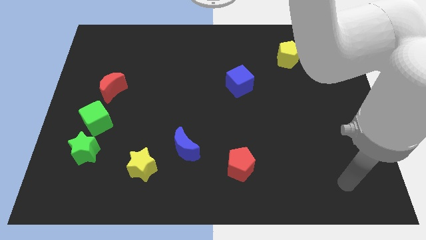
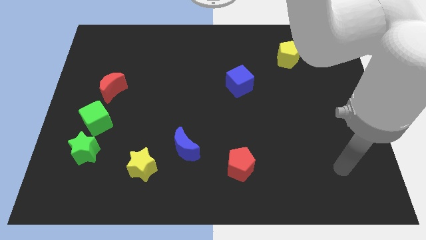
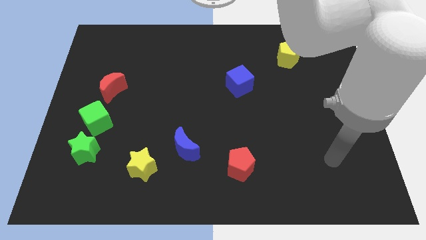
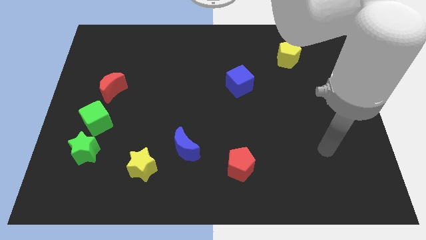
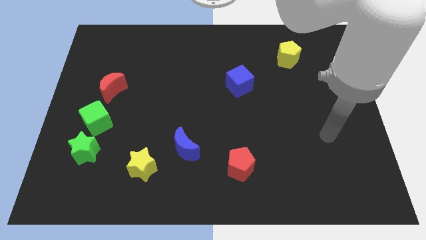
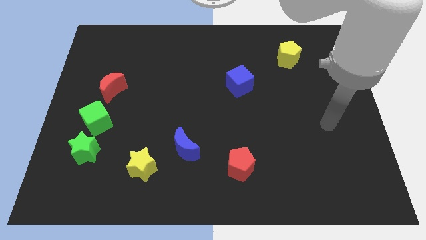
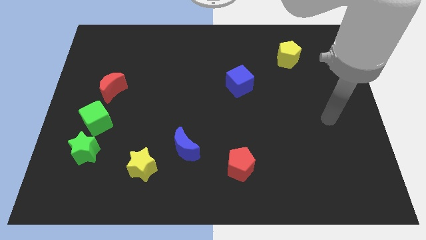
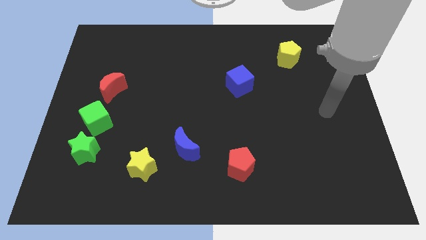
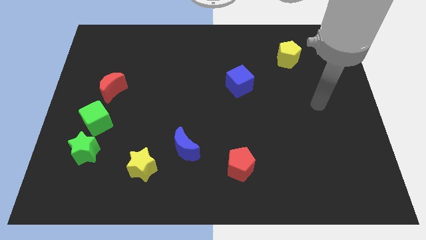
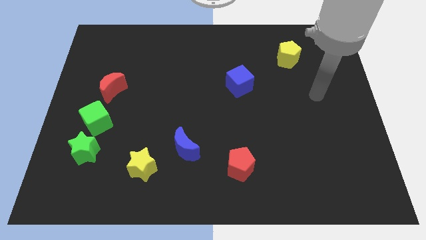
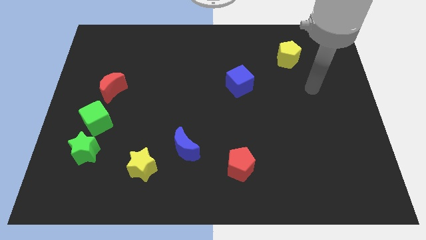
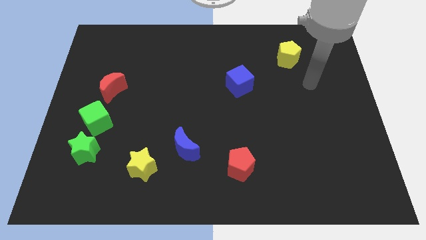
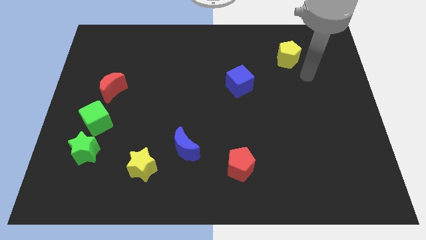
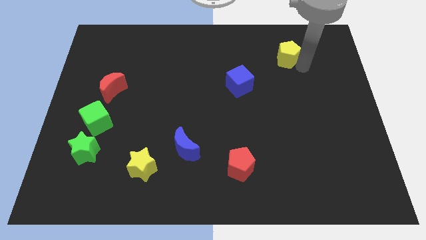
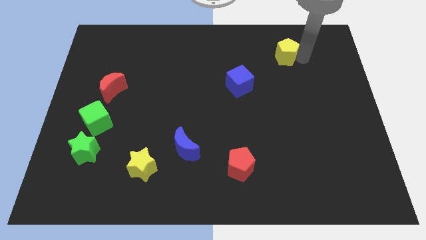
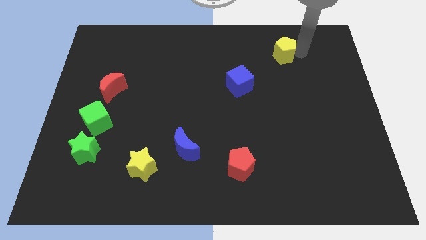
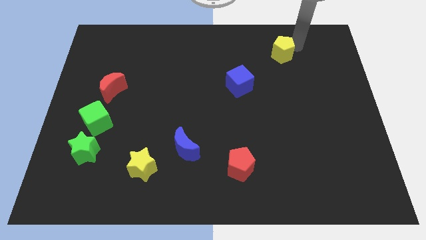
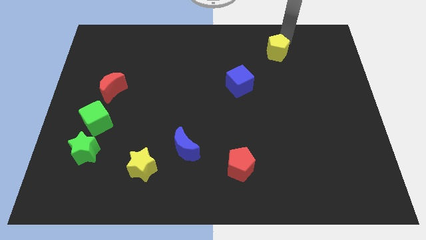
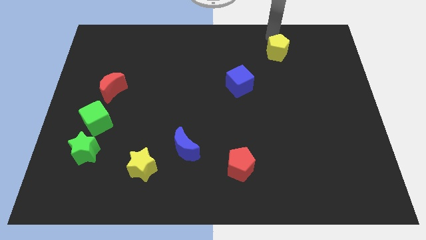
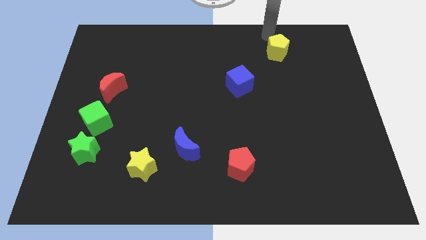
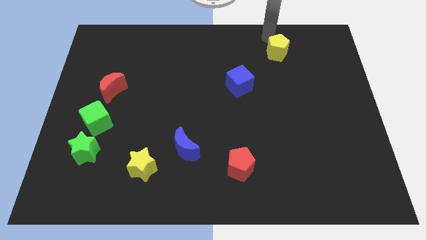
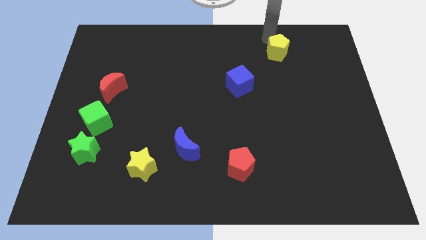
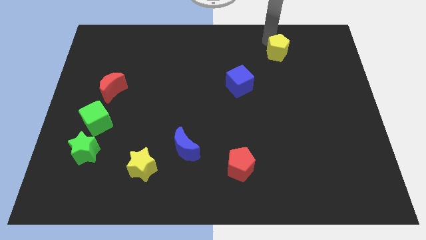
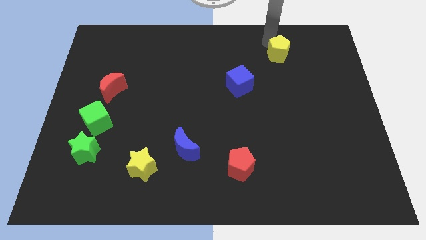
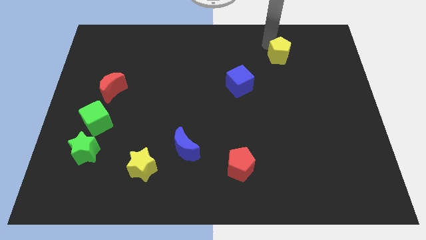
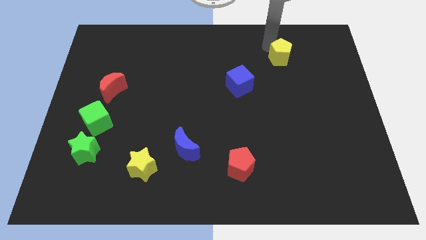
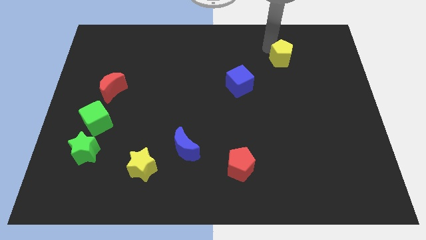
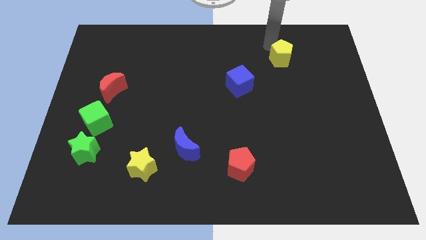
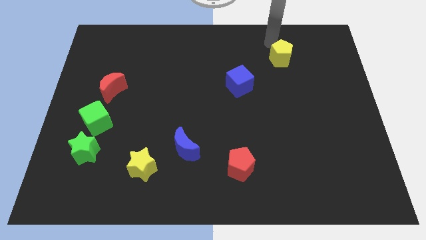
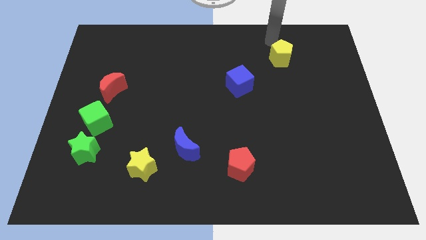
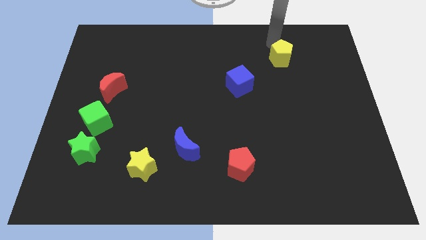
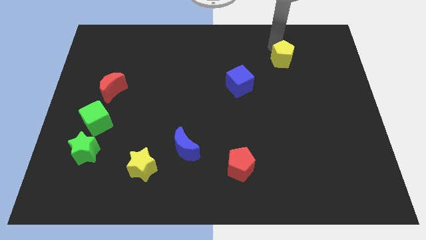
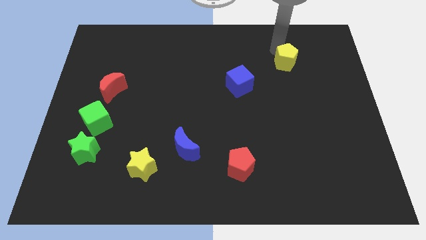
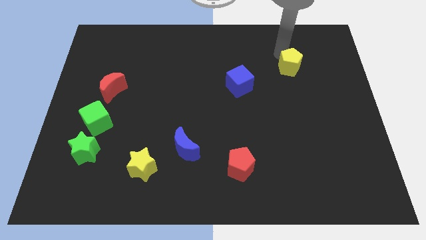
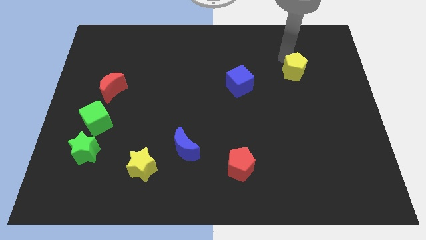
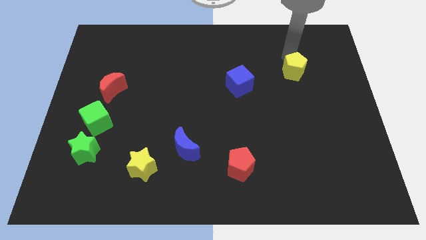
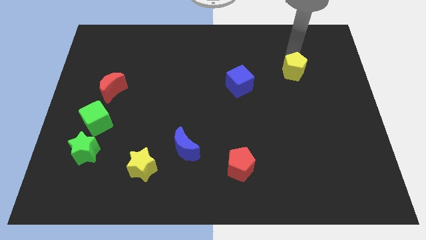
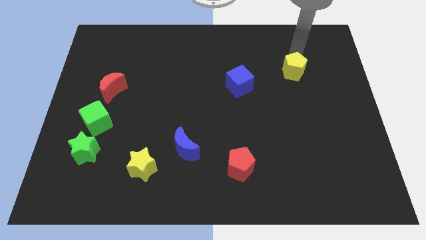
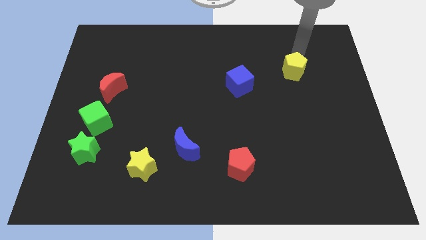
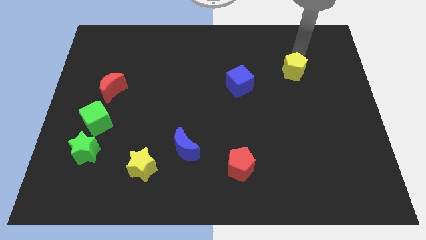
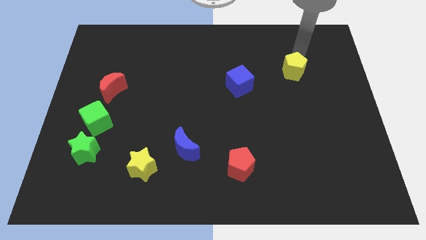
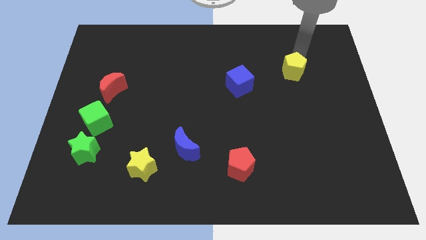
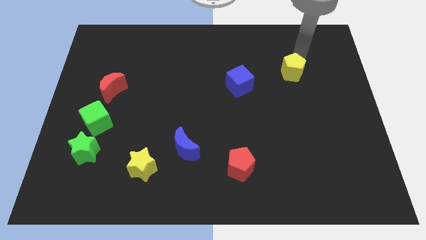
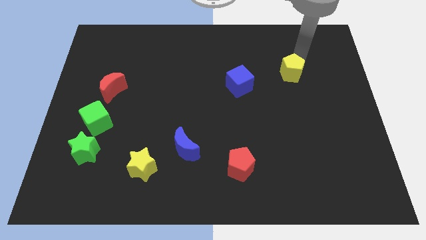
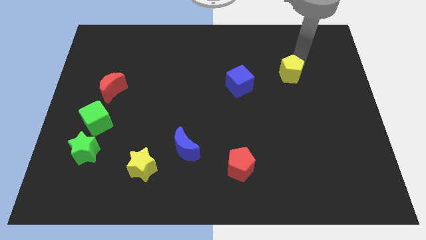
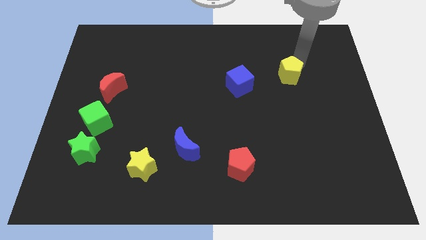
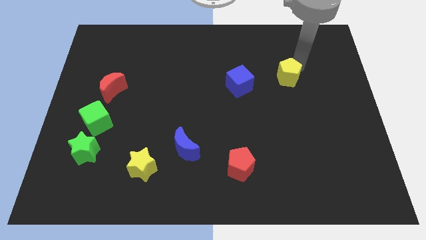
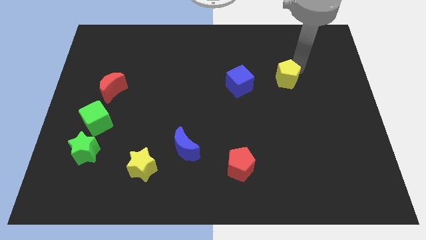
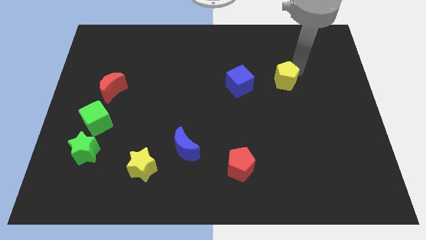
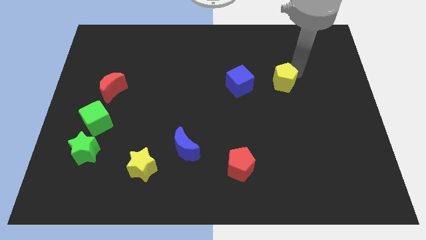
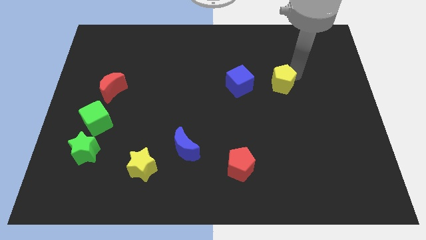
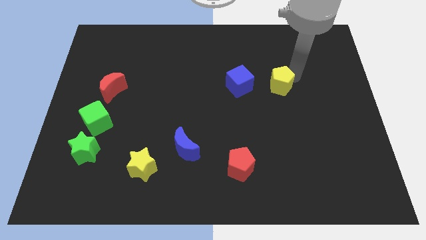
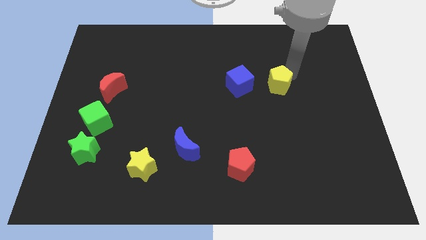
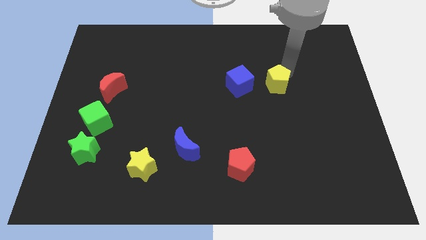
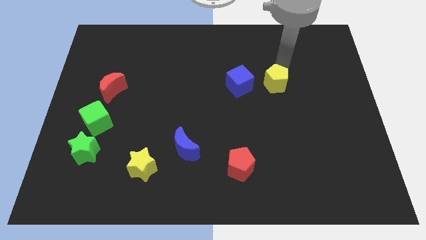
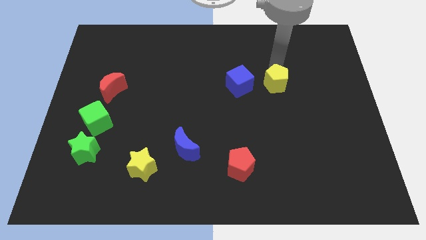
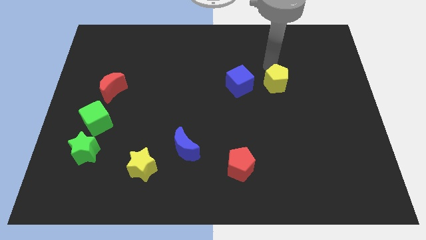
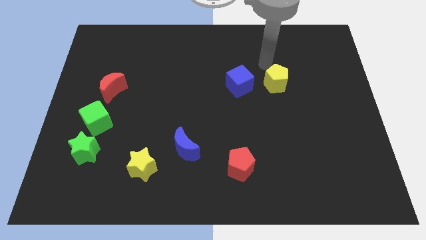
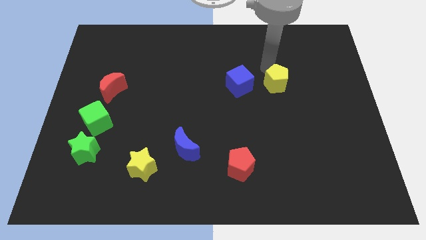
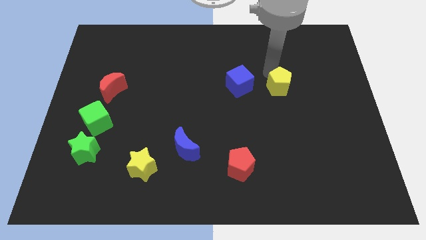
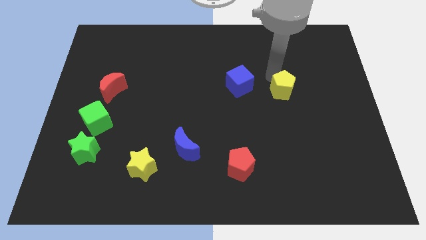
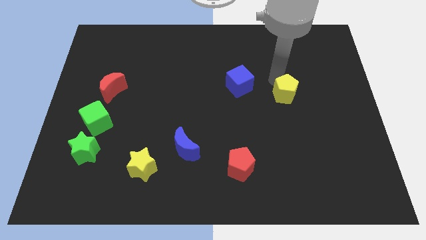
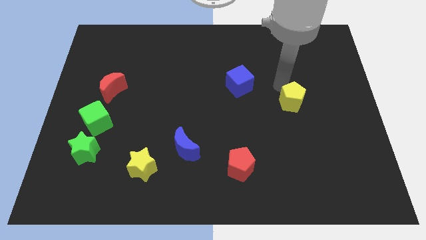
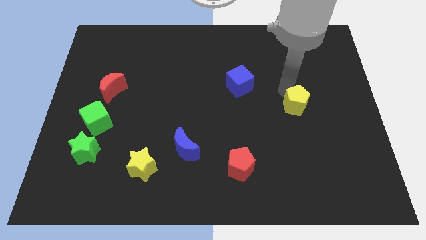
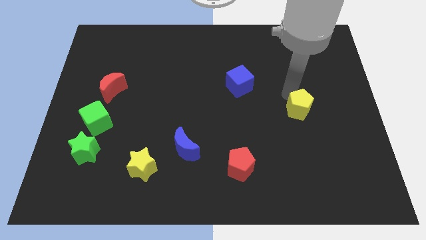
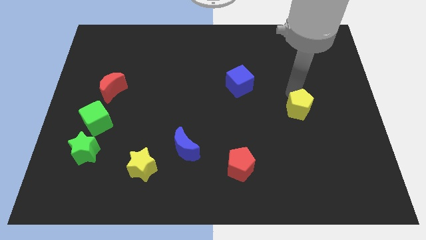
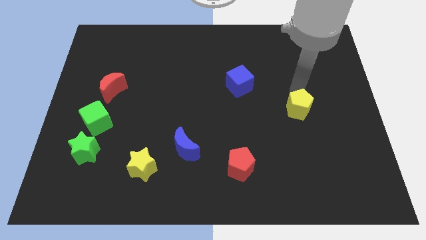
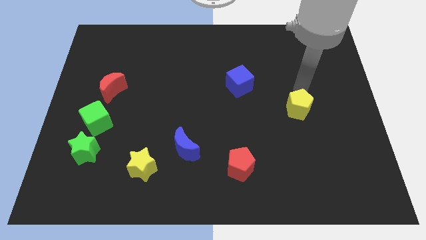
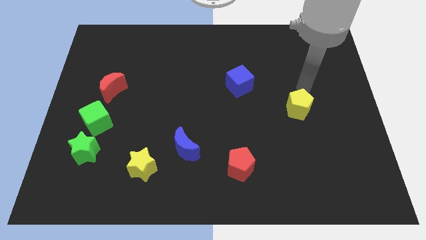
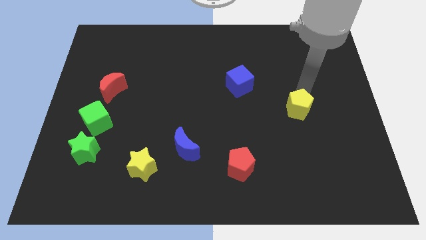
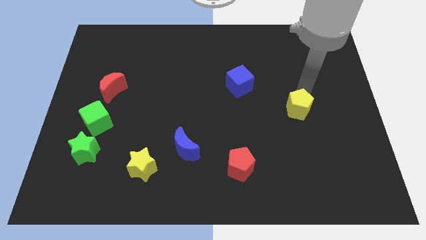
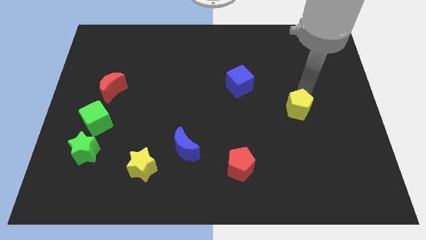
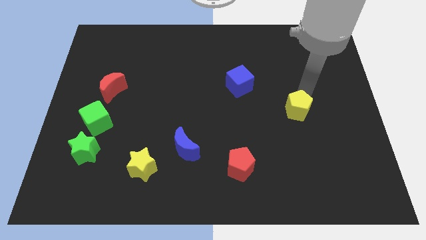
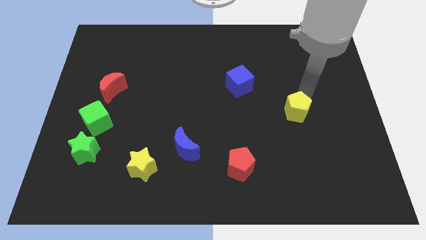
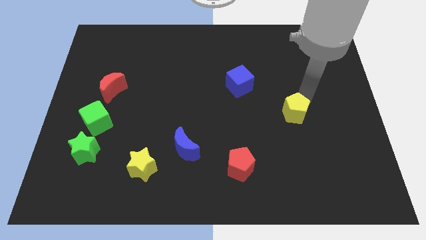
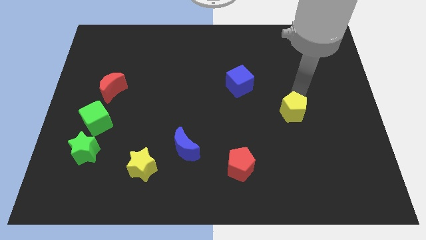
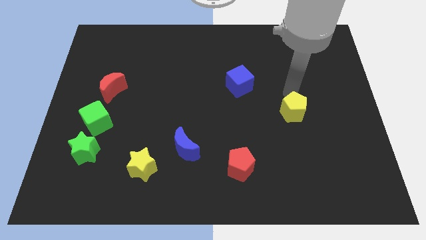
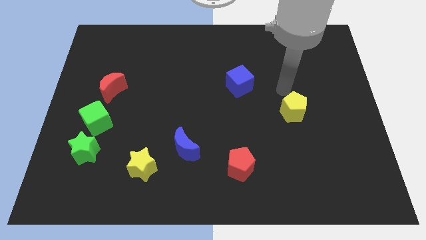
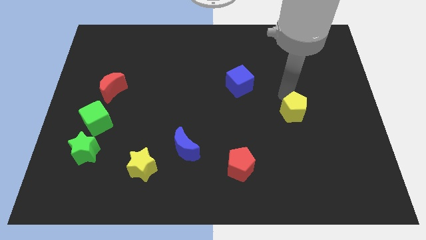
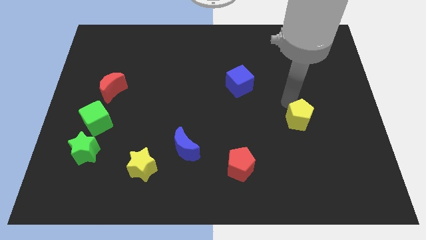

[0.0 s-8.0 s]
slide the yellow pentagon downwards

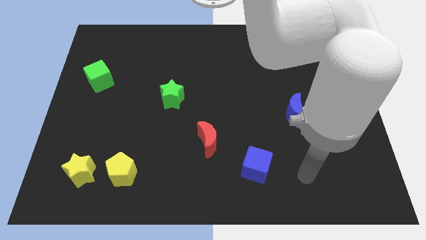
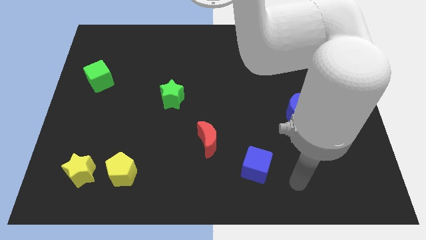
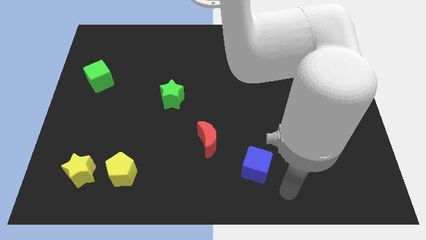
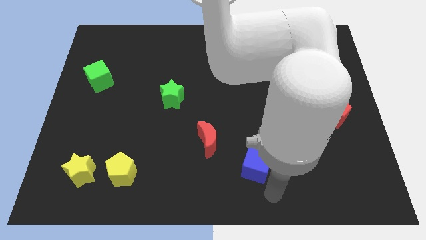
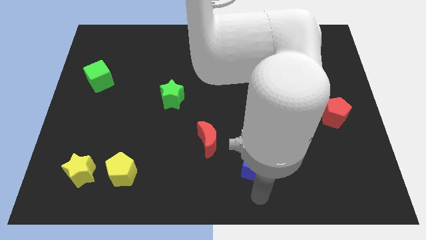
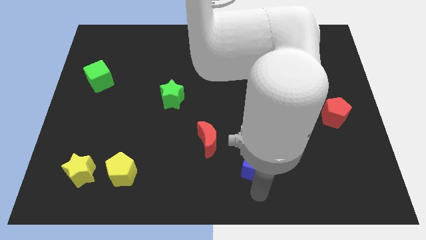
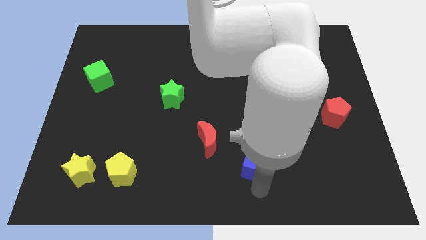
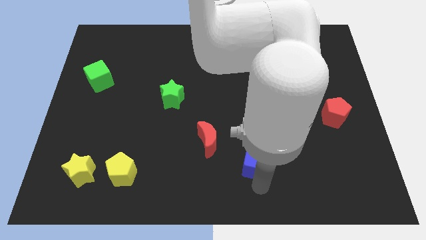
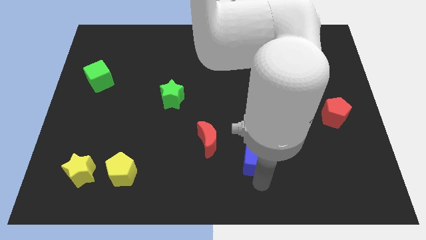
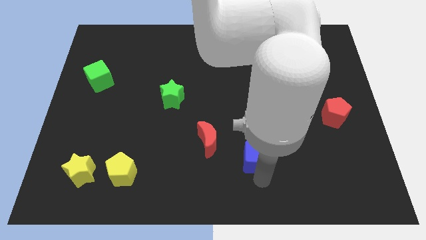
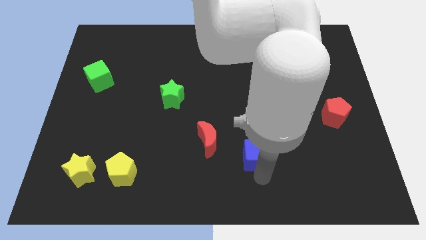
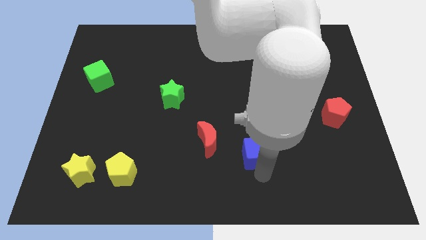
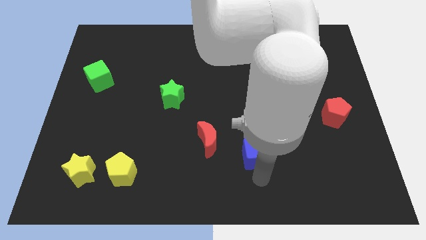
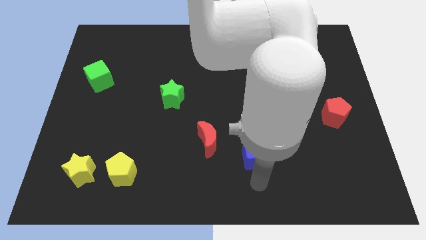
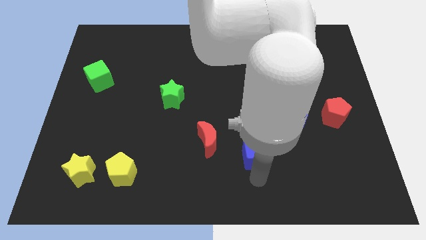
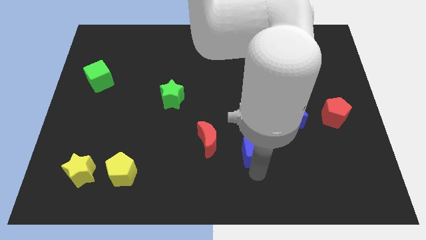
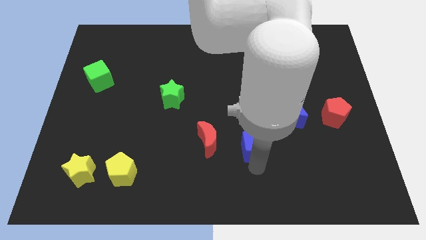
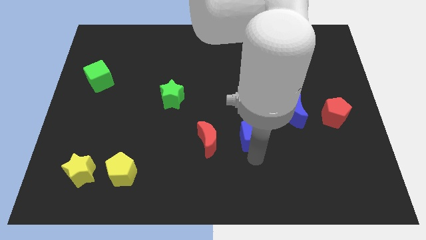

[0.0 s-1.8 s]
slightly move the blue cube upwards
